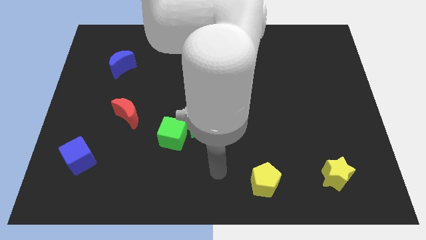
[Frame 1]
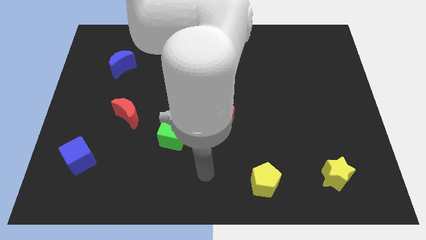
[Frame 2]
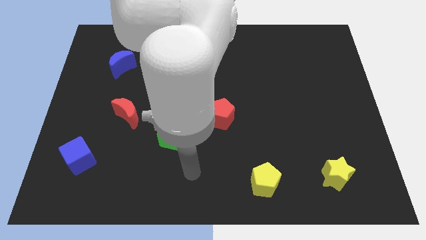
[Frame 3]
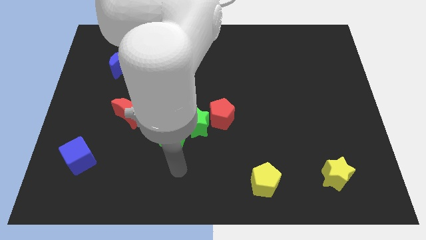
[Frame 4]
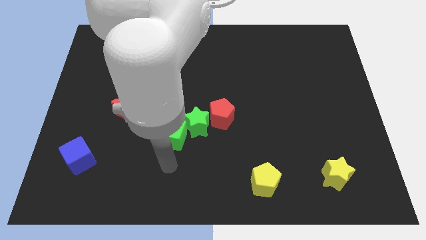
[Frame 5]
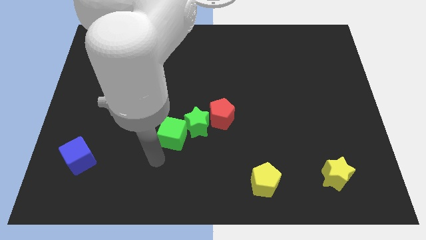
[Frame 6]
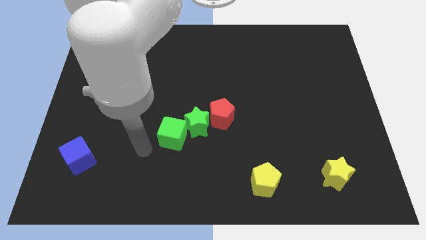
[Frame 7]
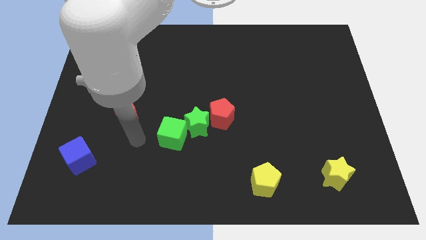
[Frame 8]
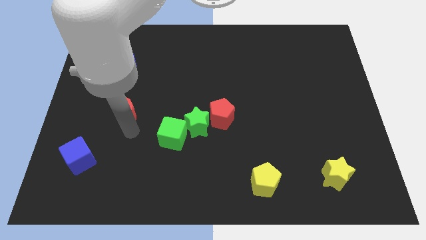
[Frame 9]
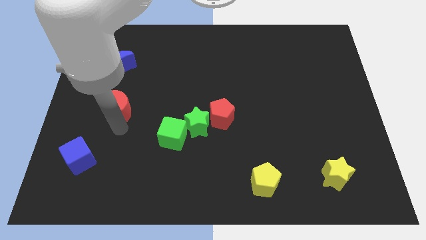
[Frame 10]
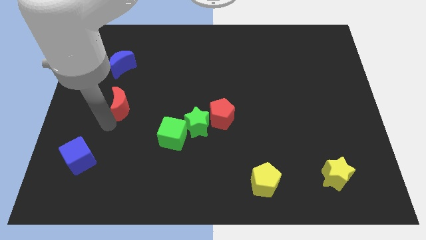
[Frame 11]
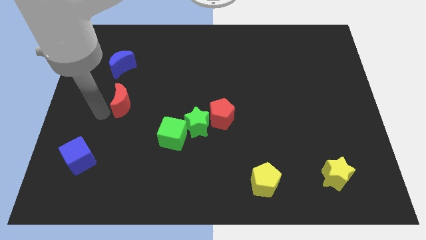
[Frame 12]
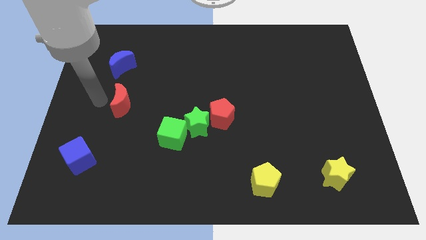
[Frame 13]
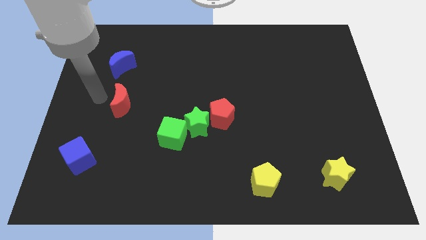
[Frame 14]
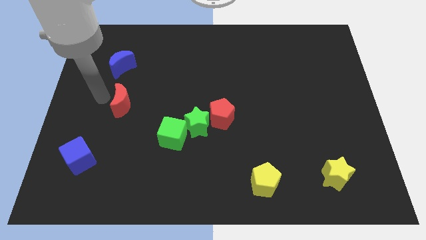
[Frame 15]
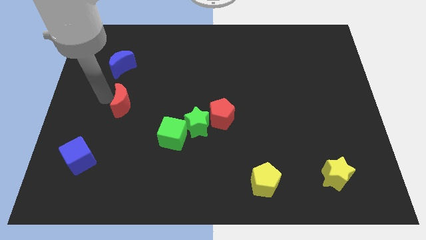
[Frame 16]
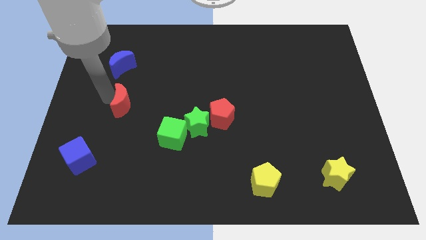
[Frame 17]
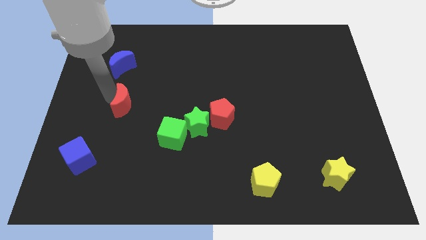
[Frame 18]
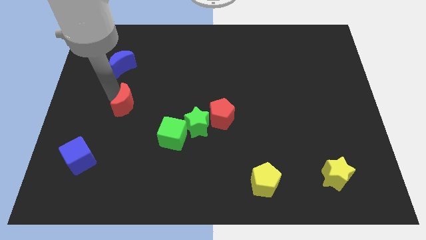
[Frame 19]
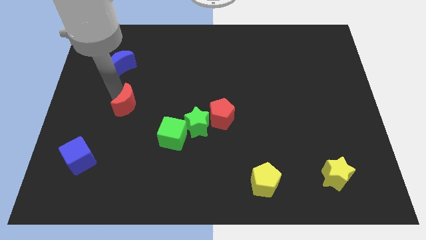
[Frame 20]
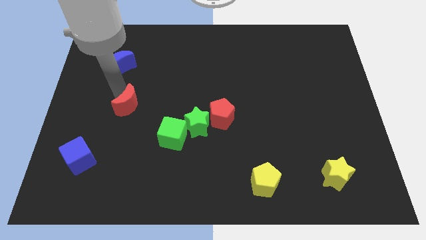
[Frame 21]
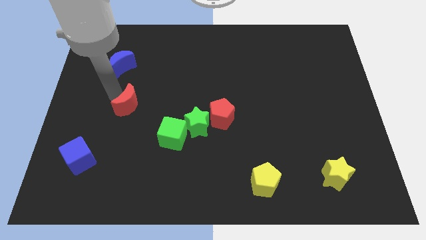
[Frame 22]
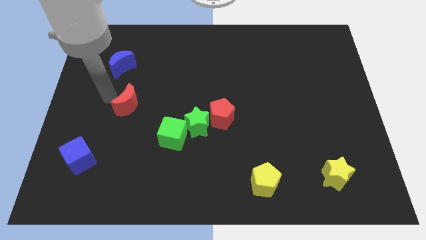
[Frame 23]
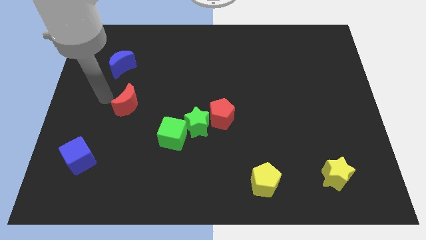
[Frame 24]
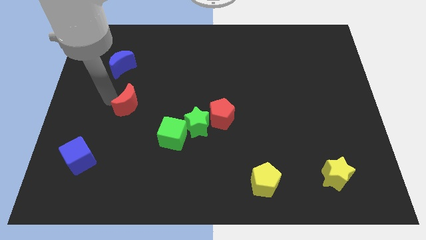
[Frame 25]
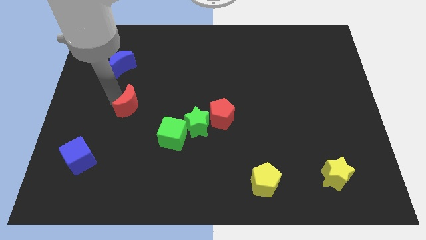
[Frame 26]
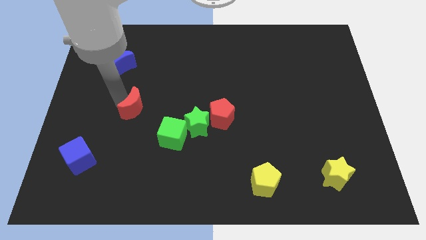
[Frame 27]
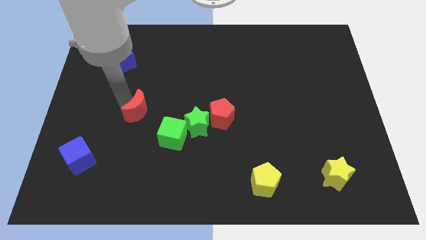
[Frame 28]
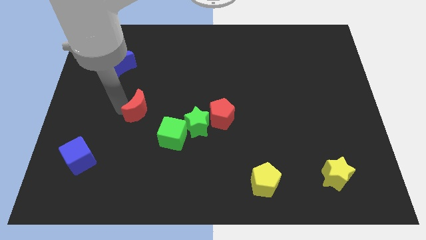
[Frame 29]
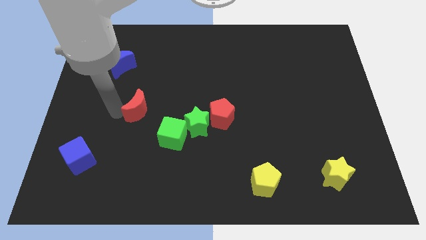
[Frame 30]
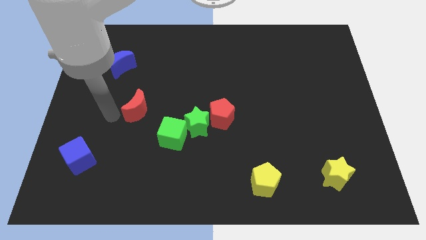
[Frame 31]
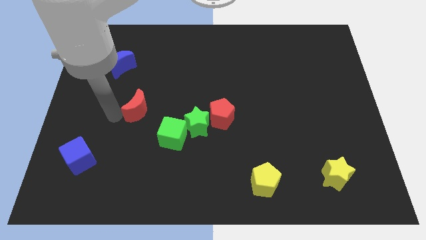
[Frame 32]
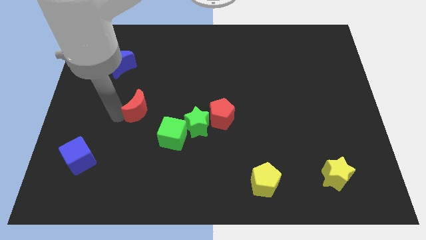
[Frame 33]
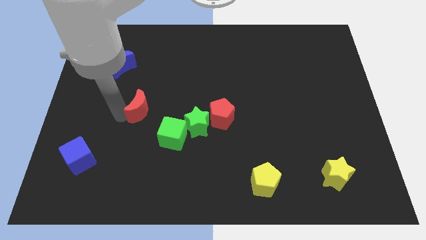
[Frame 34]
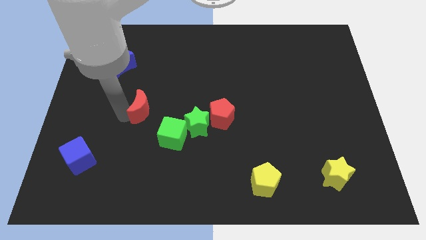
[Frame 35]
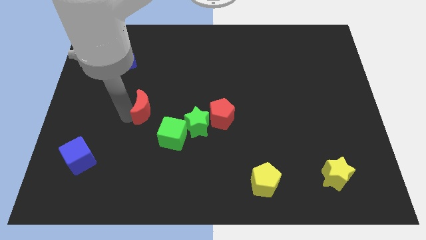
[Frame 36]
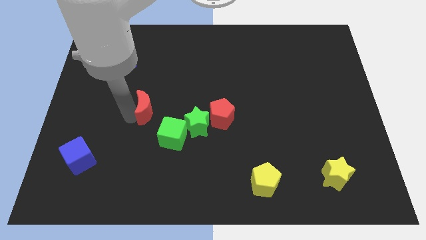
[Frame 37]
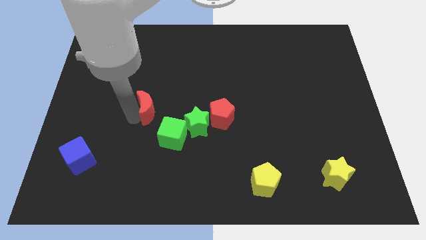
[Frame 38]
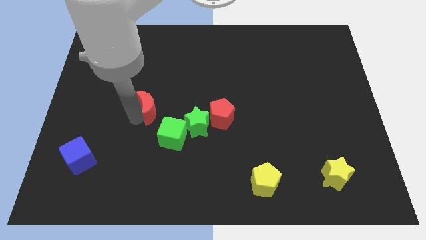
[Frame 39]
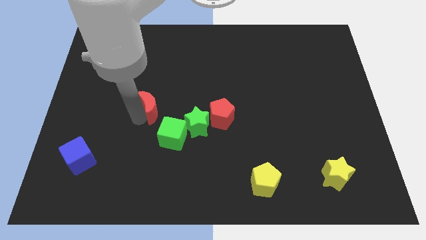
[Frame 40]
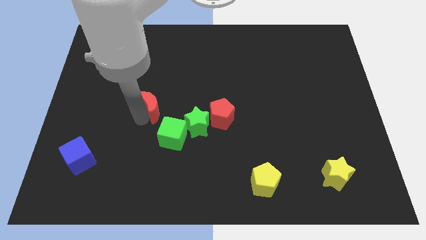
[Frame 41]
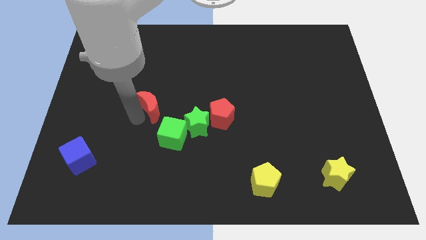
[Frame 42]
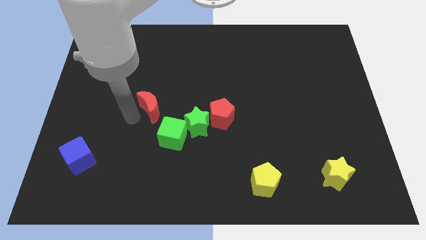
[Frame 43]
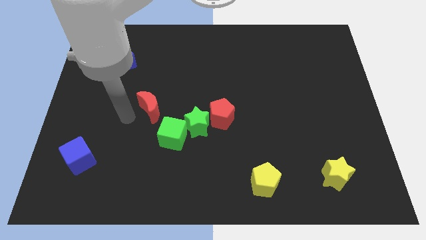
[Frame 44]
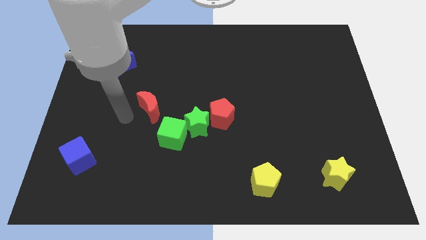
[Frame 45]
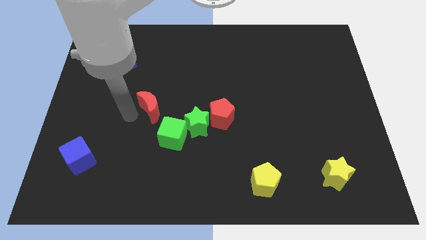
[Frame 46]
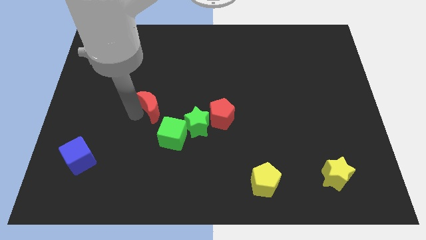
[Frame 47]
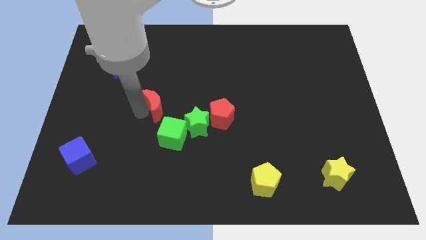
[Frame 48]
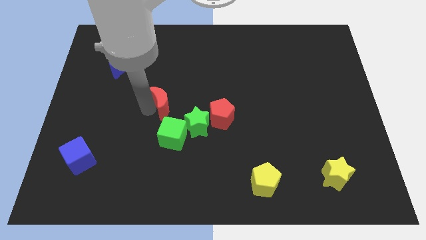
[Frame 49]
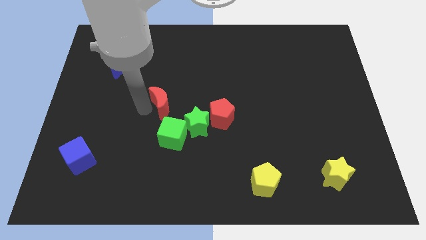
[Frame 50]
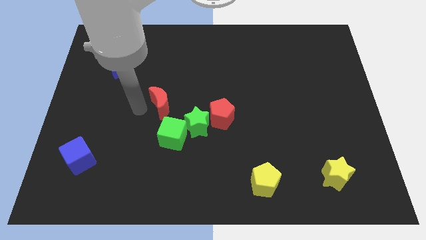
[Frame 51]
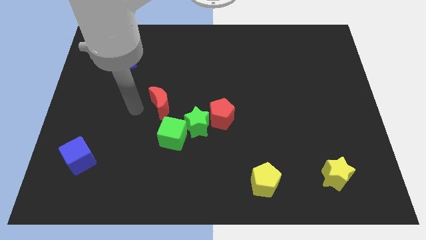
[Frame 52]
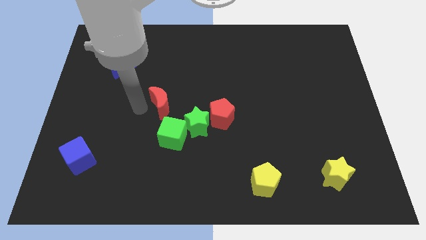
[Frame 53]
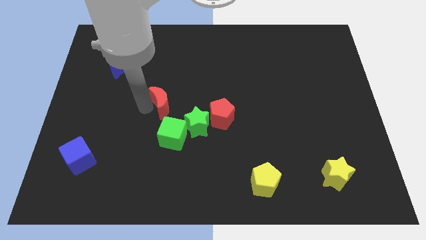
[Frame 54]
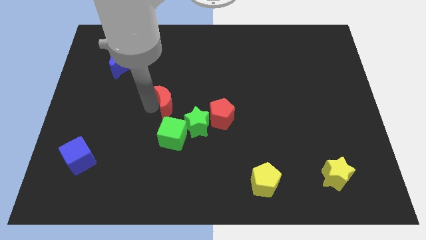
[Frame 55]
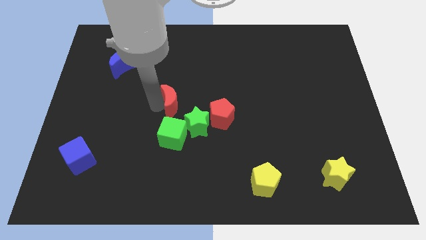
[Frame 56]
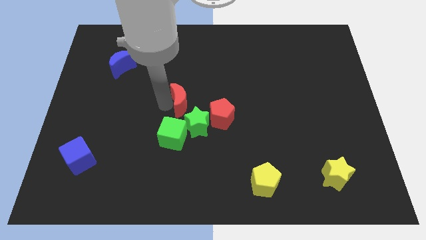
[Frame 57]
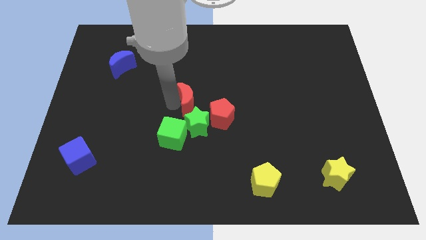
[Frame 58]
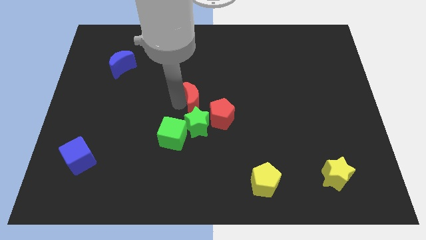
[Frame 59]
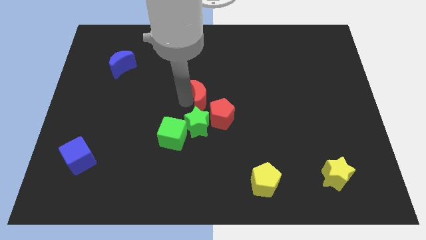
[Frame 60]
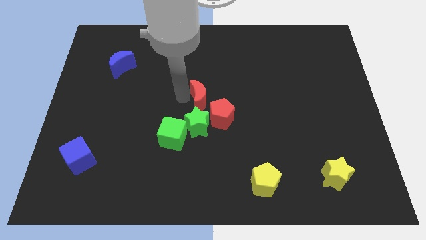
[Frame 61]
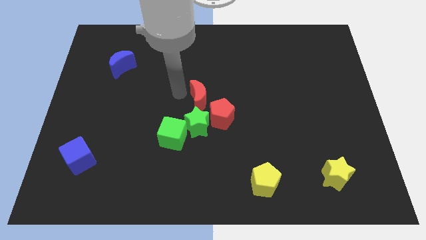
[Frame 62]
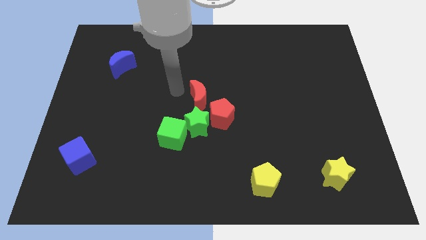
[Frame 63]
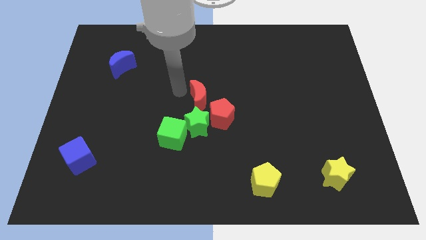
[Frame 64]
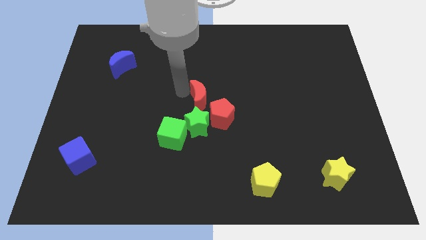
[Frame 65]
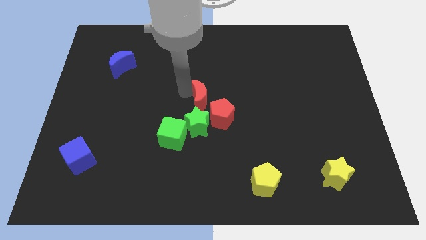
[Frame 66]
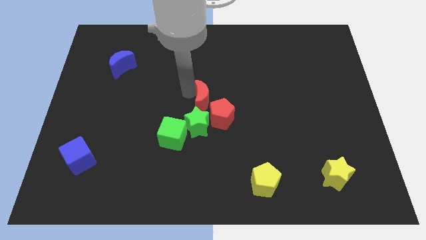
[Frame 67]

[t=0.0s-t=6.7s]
push the red moon diagonally up and to the right of the green star

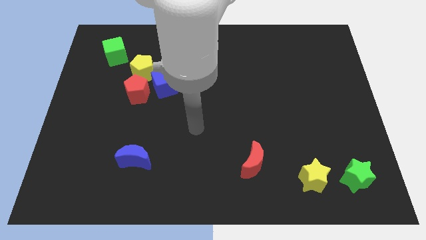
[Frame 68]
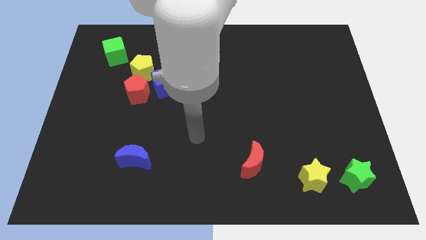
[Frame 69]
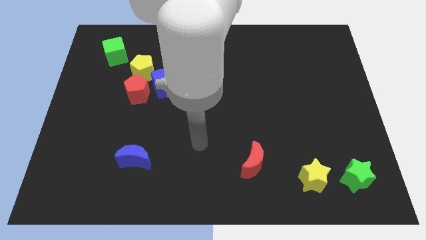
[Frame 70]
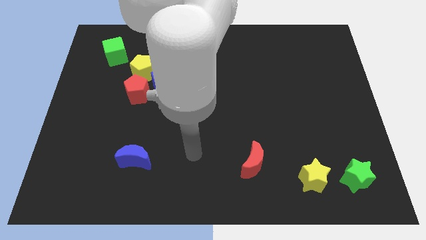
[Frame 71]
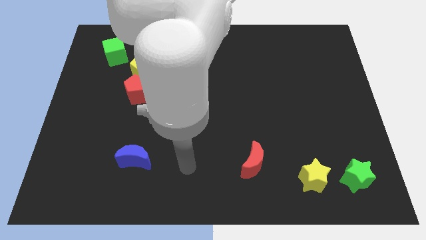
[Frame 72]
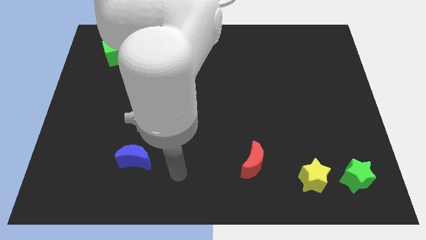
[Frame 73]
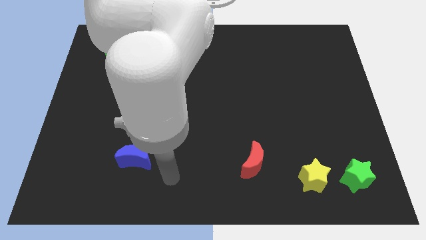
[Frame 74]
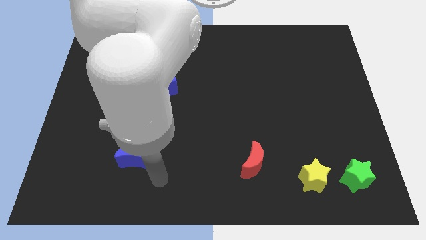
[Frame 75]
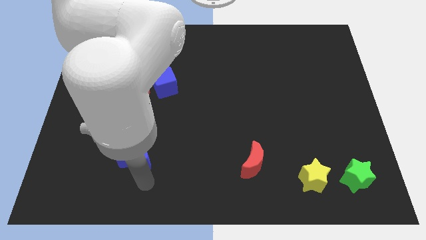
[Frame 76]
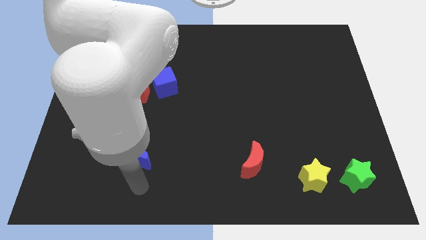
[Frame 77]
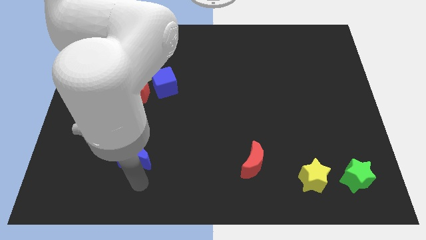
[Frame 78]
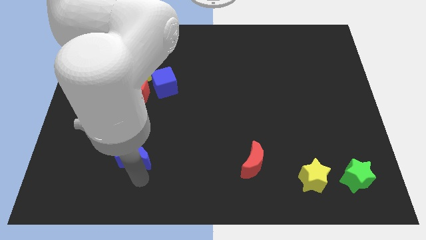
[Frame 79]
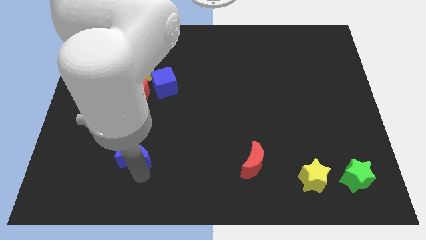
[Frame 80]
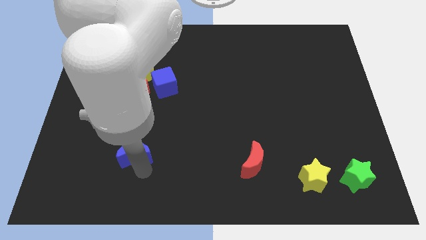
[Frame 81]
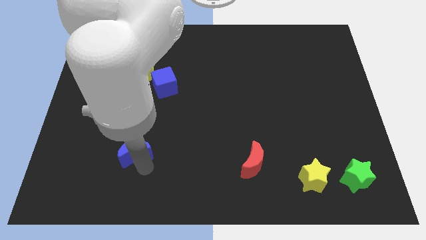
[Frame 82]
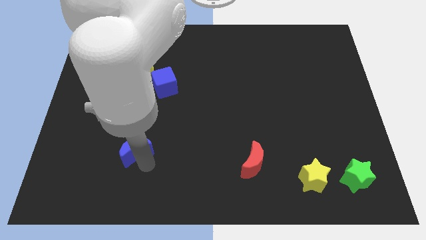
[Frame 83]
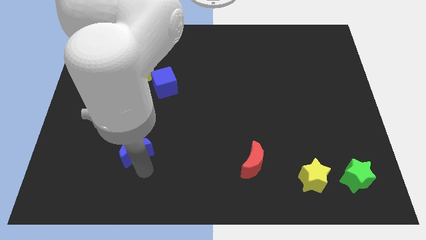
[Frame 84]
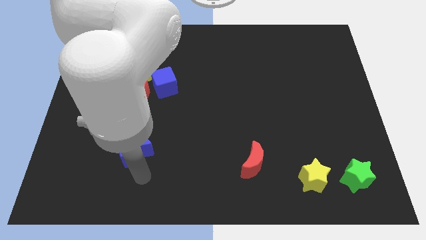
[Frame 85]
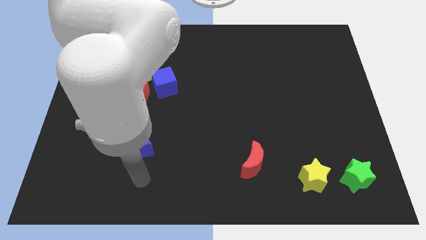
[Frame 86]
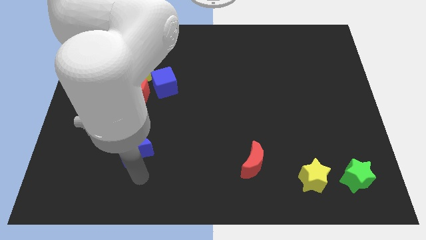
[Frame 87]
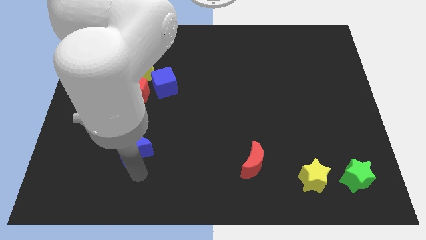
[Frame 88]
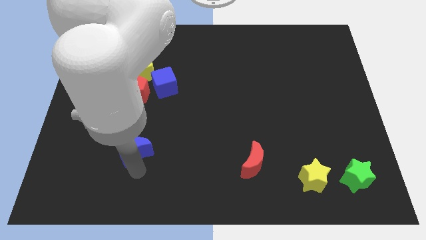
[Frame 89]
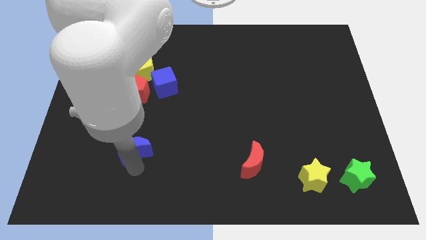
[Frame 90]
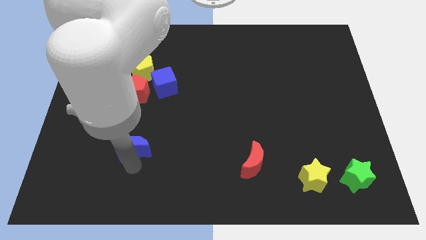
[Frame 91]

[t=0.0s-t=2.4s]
put the blue moon to the bottom side of the red pentagon
